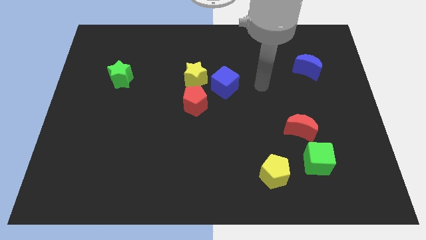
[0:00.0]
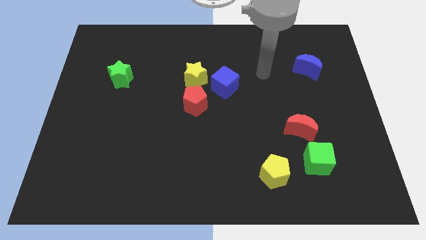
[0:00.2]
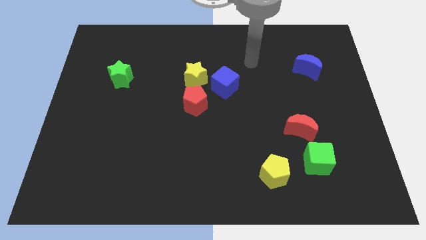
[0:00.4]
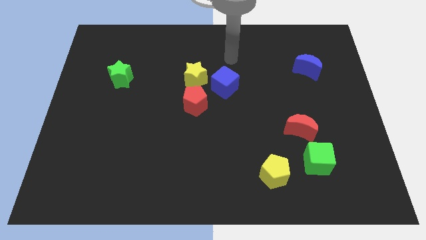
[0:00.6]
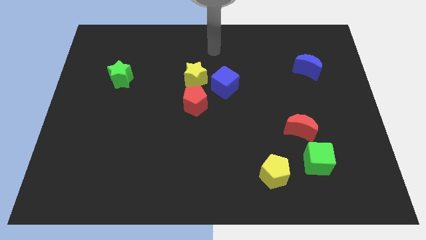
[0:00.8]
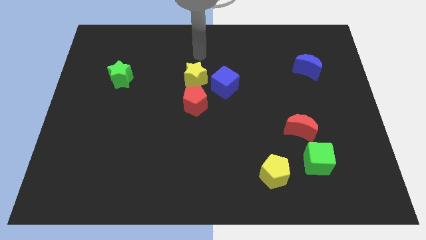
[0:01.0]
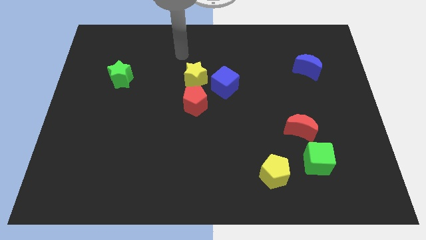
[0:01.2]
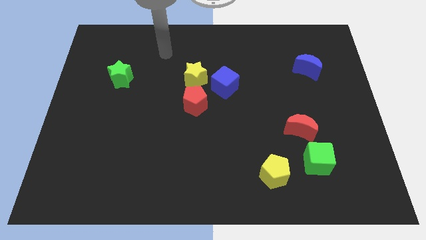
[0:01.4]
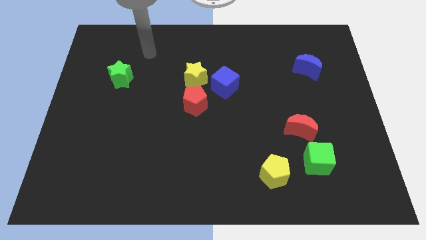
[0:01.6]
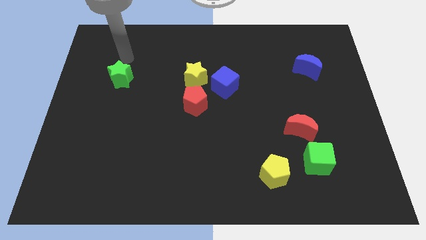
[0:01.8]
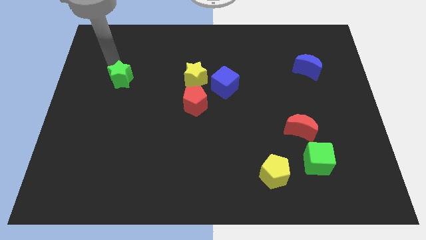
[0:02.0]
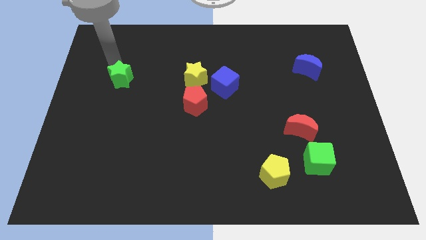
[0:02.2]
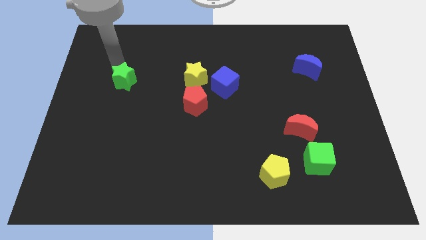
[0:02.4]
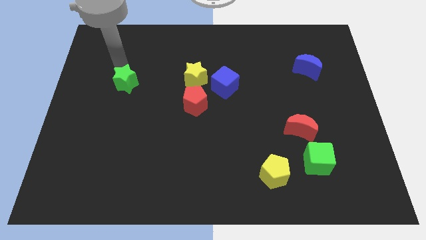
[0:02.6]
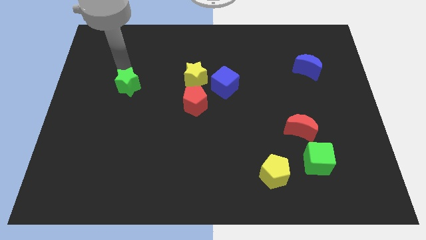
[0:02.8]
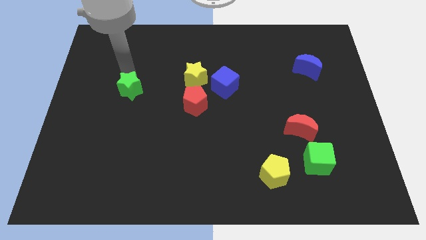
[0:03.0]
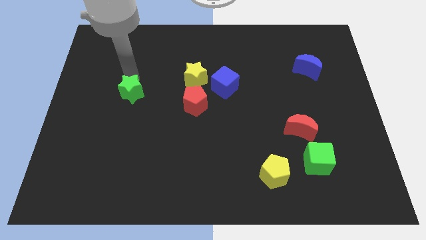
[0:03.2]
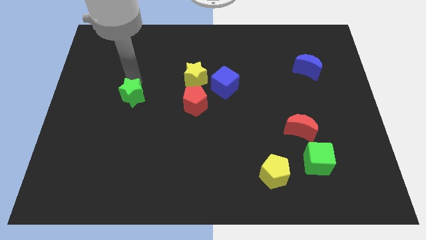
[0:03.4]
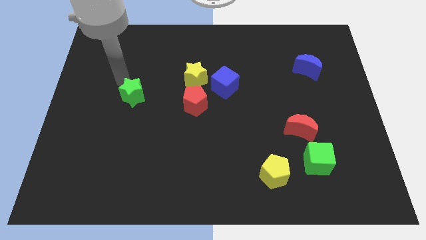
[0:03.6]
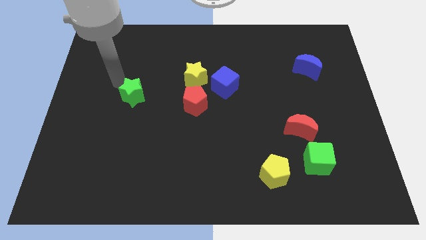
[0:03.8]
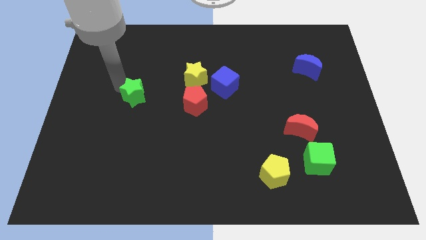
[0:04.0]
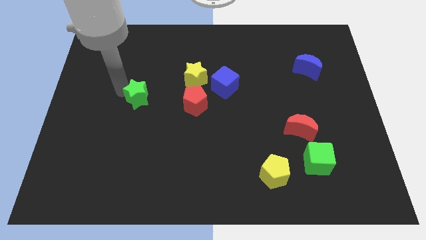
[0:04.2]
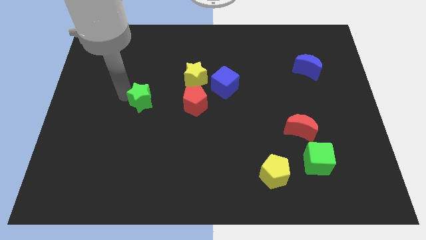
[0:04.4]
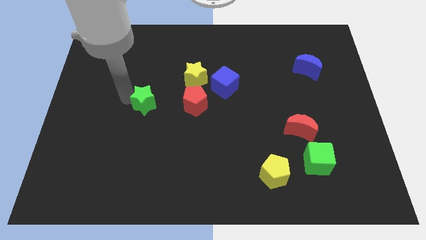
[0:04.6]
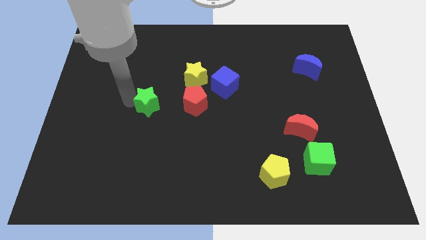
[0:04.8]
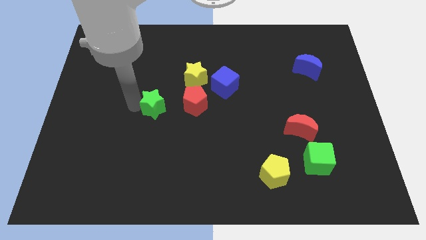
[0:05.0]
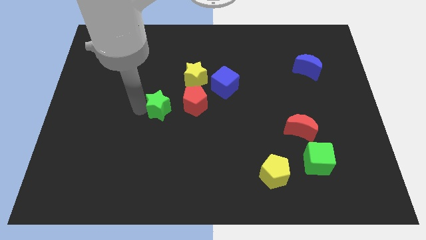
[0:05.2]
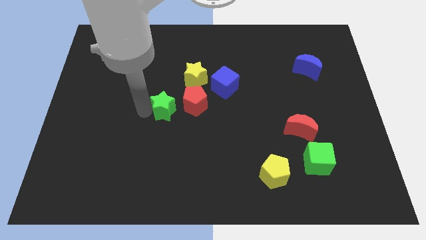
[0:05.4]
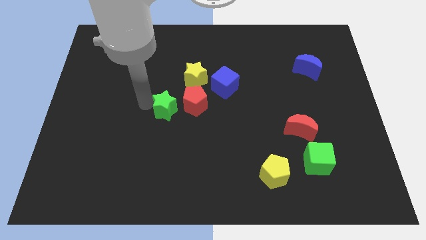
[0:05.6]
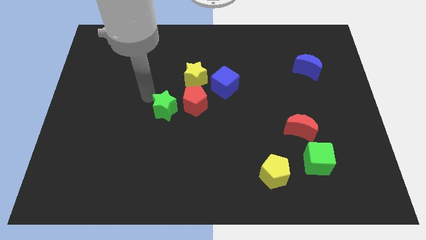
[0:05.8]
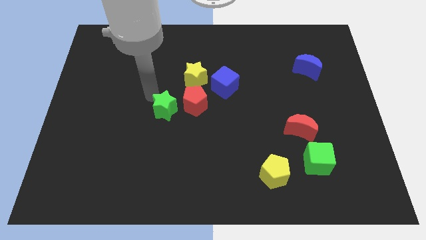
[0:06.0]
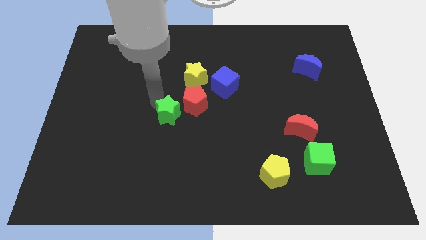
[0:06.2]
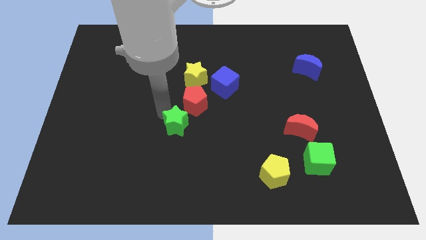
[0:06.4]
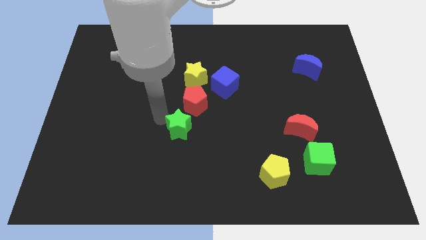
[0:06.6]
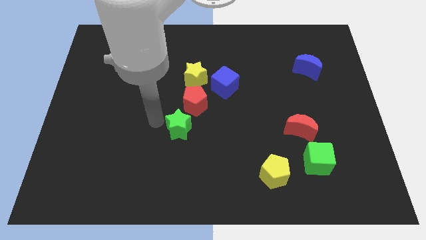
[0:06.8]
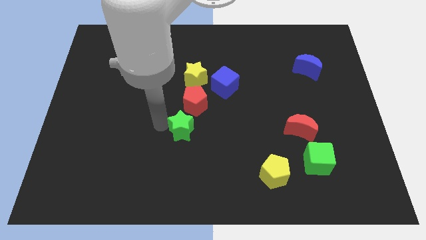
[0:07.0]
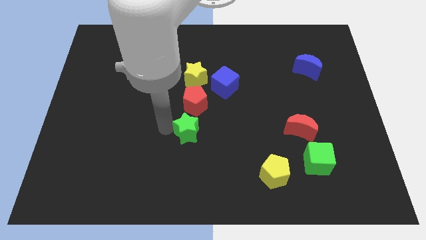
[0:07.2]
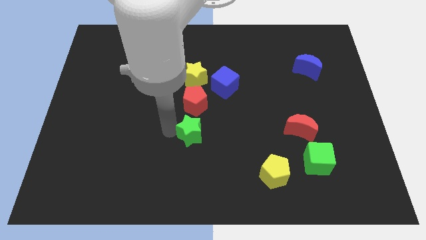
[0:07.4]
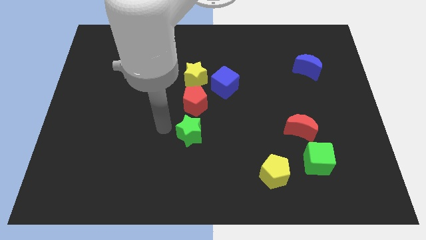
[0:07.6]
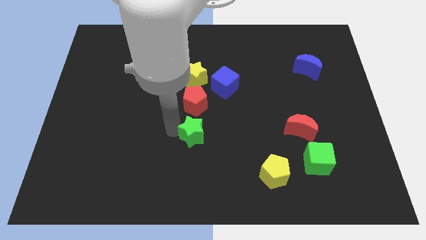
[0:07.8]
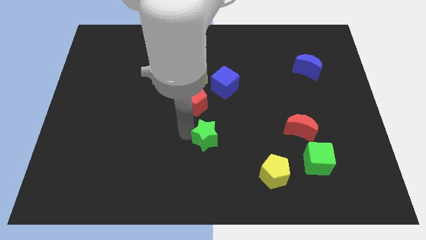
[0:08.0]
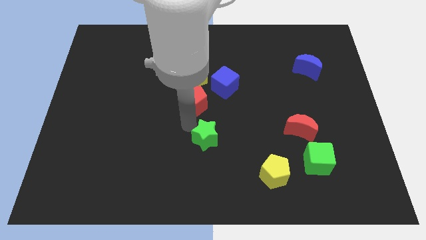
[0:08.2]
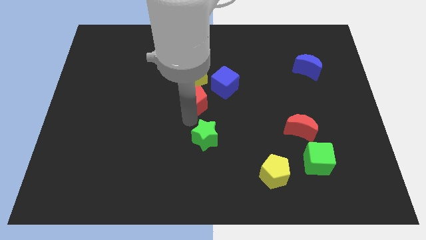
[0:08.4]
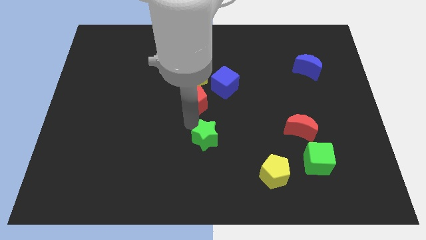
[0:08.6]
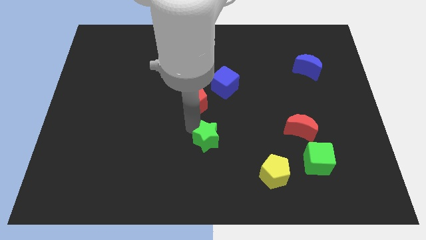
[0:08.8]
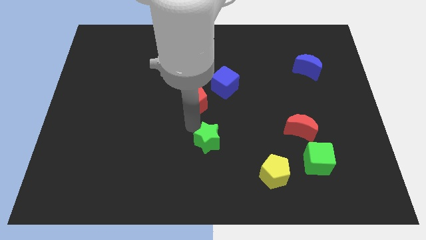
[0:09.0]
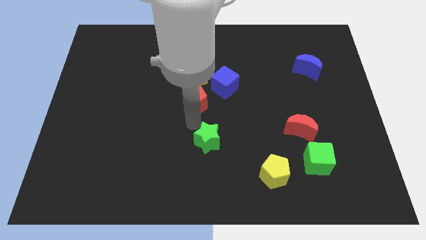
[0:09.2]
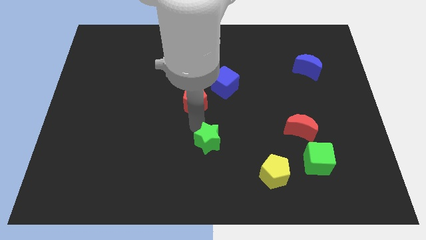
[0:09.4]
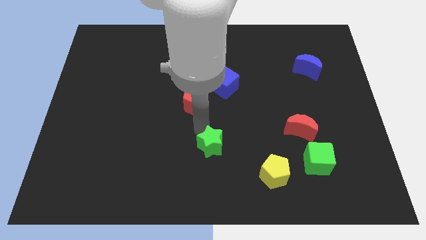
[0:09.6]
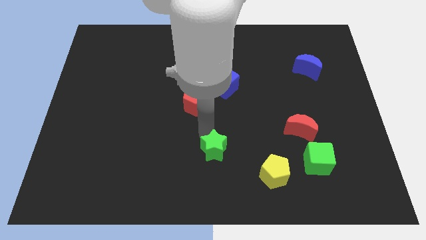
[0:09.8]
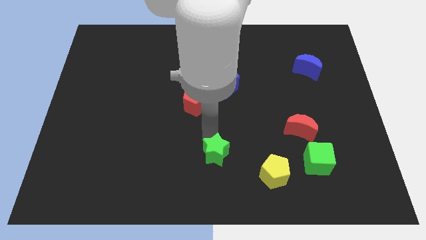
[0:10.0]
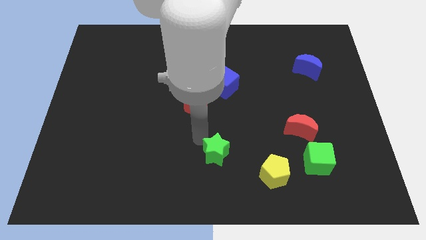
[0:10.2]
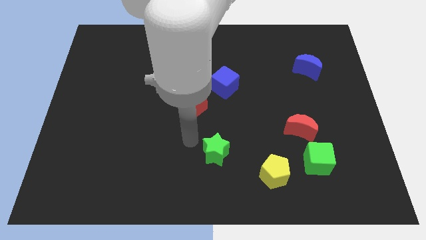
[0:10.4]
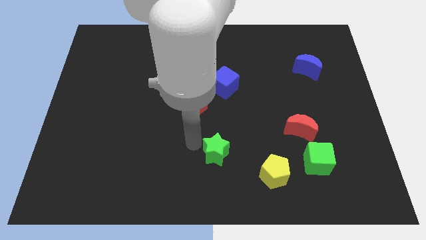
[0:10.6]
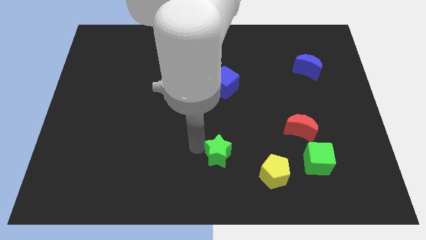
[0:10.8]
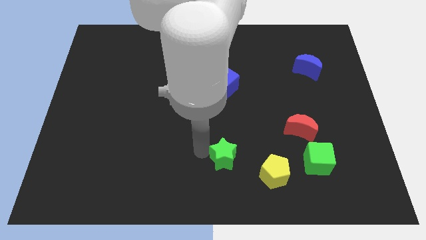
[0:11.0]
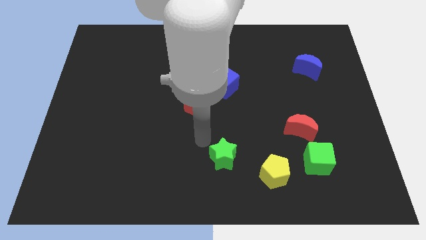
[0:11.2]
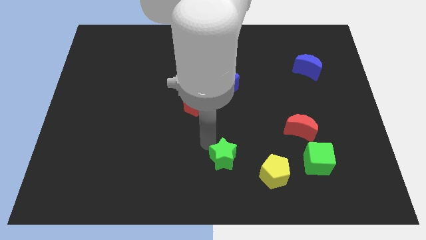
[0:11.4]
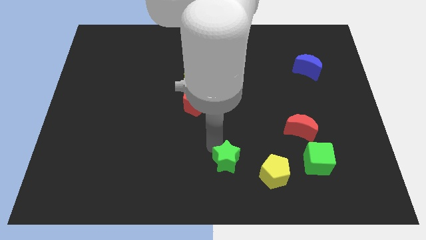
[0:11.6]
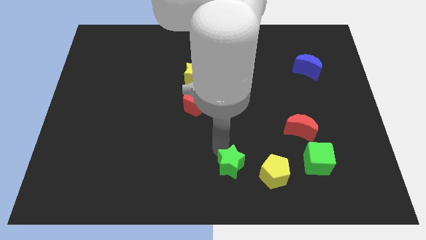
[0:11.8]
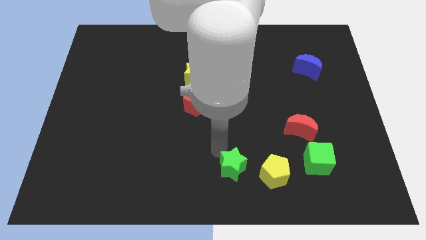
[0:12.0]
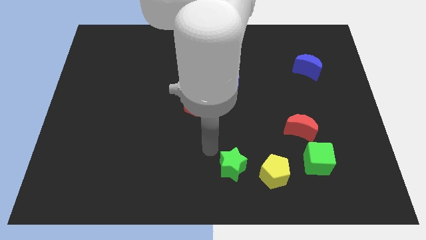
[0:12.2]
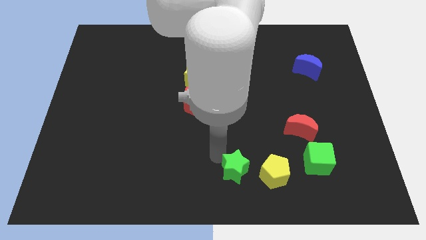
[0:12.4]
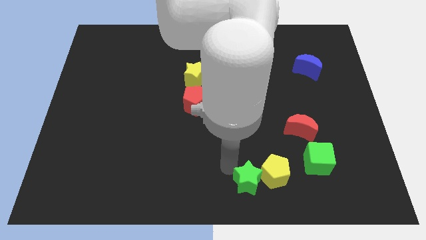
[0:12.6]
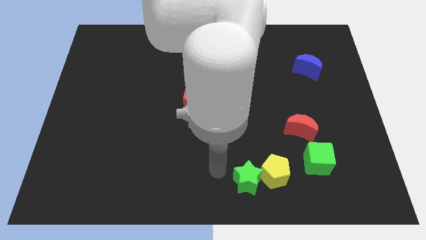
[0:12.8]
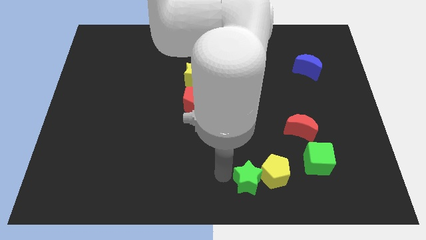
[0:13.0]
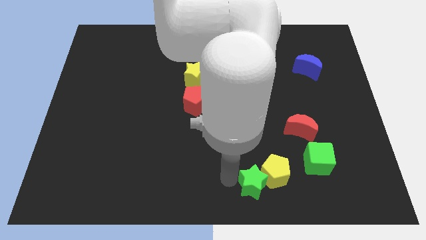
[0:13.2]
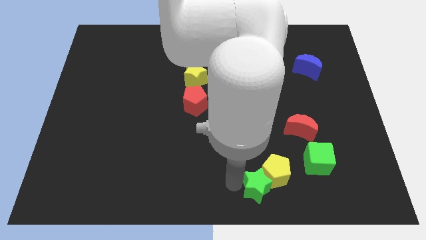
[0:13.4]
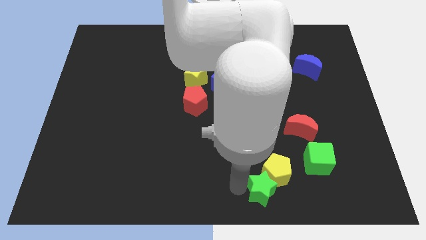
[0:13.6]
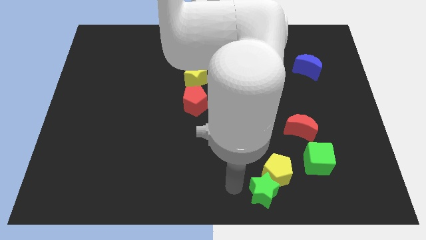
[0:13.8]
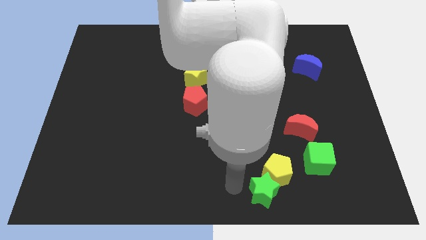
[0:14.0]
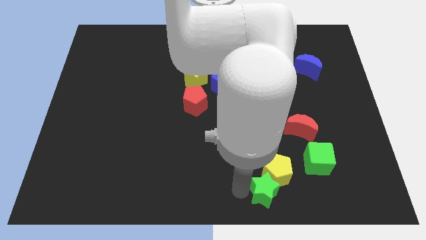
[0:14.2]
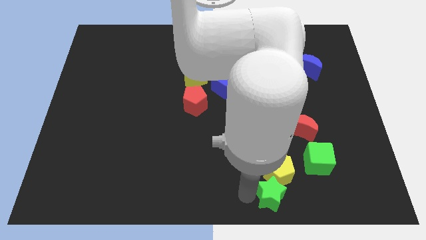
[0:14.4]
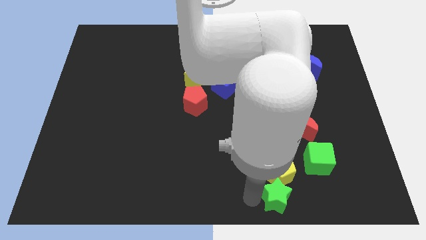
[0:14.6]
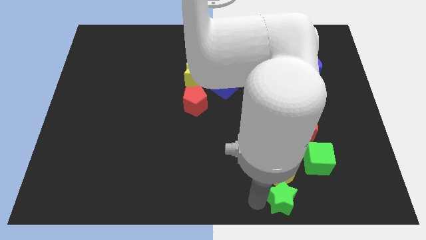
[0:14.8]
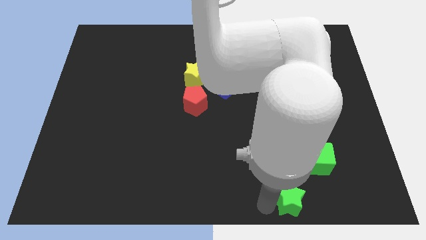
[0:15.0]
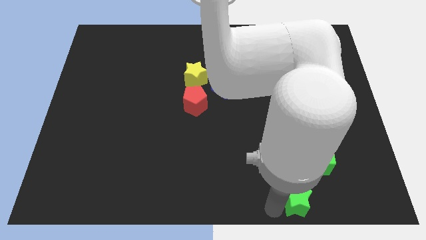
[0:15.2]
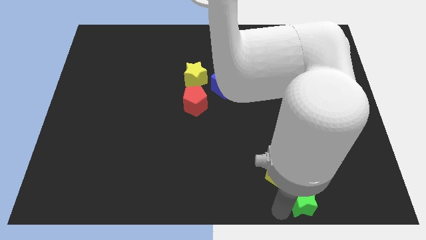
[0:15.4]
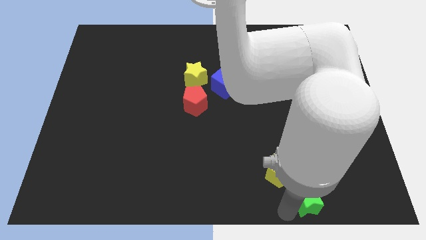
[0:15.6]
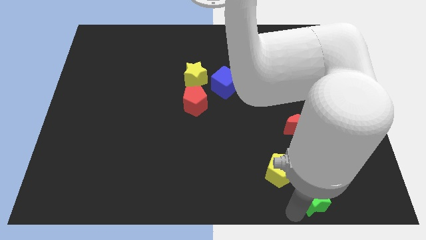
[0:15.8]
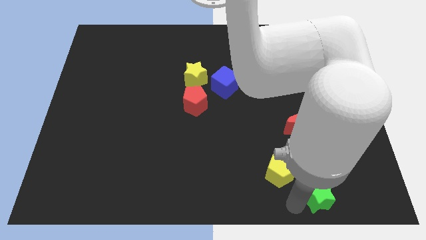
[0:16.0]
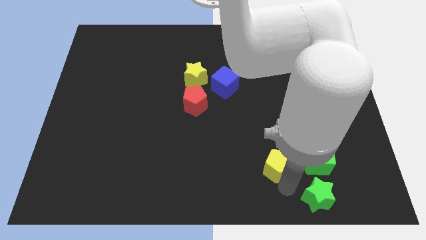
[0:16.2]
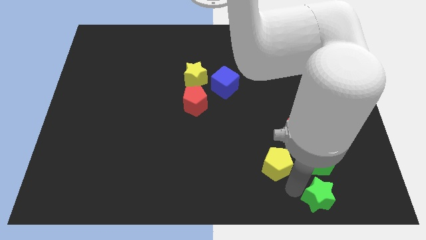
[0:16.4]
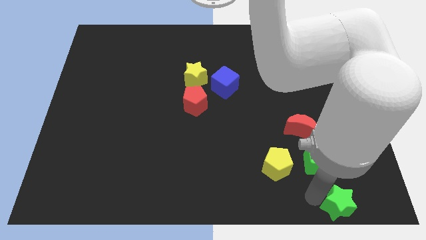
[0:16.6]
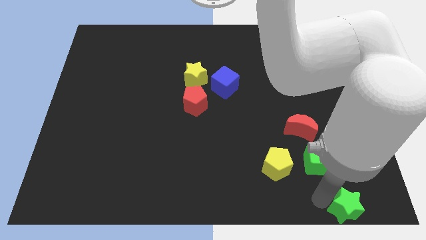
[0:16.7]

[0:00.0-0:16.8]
push the green star to the bottom right
